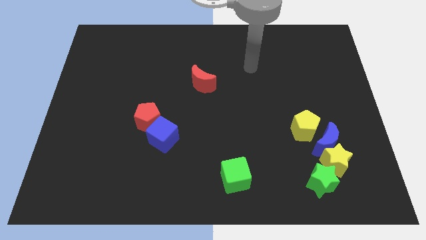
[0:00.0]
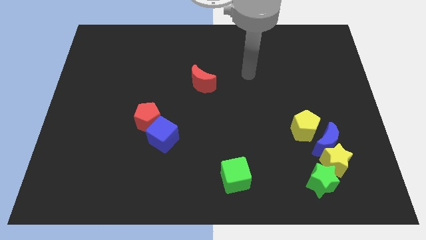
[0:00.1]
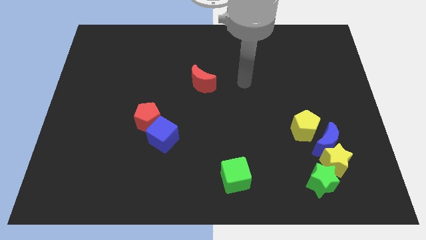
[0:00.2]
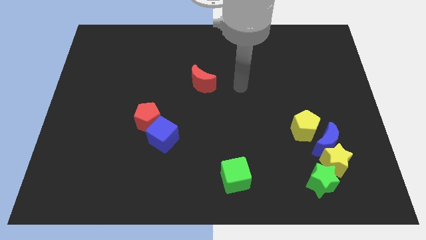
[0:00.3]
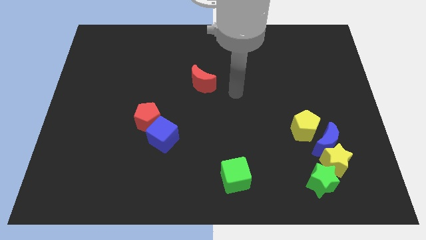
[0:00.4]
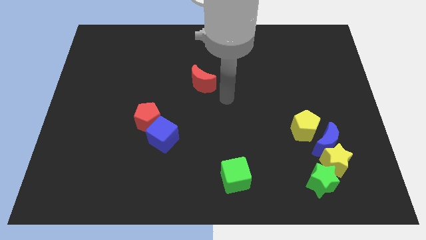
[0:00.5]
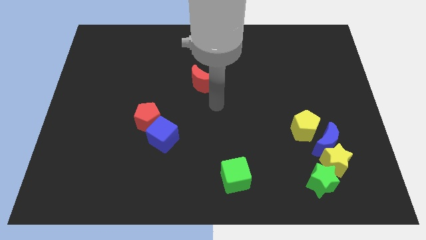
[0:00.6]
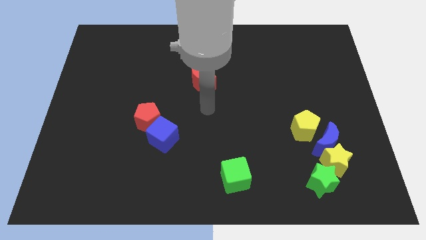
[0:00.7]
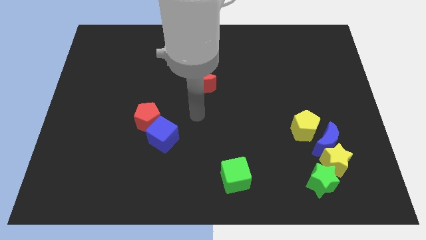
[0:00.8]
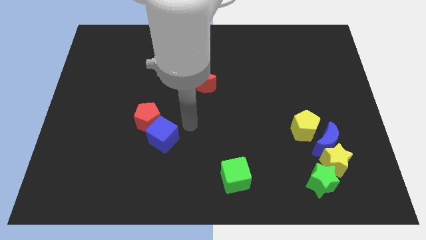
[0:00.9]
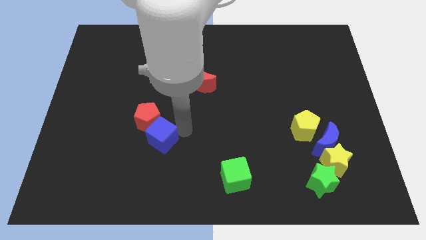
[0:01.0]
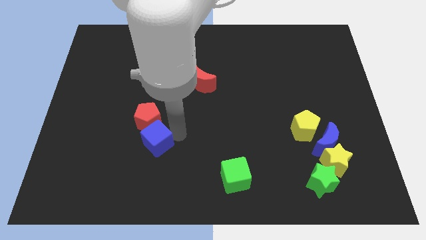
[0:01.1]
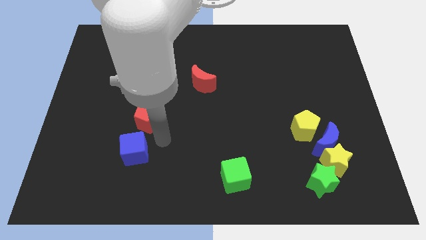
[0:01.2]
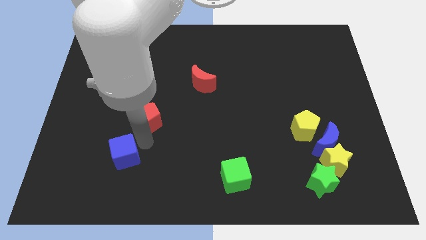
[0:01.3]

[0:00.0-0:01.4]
separate the red pentagon from the blue cube

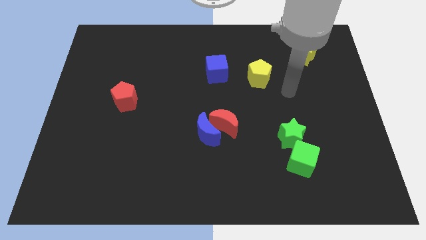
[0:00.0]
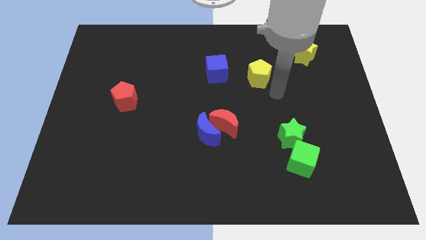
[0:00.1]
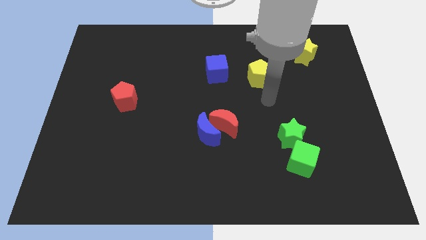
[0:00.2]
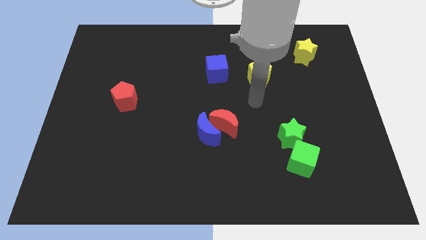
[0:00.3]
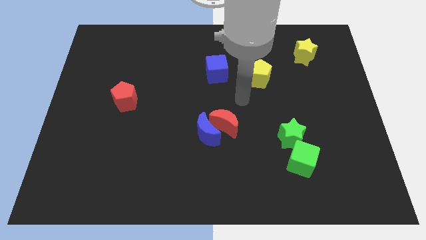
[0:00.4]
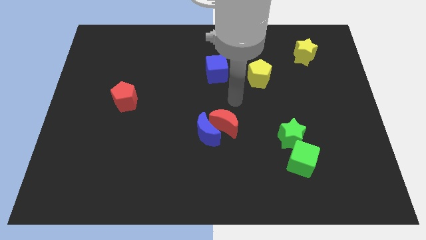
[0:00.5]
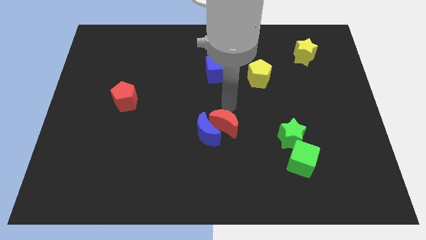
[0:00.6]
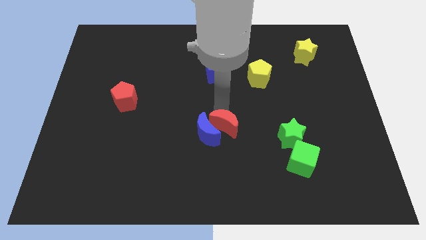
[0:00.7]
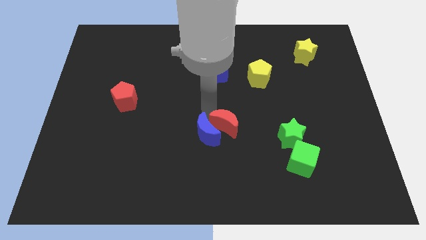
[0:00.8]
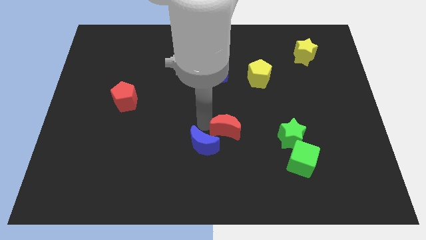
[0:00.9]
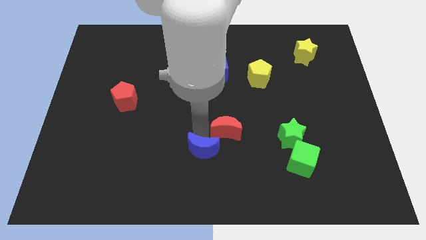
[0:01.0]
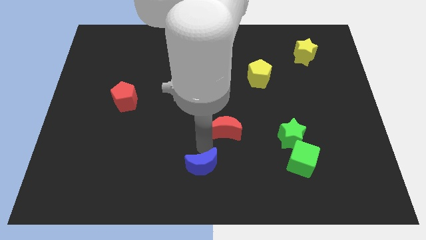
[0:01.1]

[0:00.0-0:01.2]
separate the red moon from the blue moon

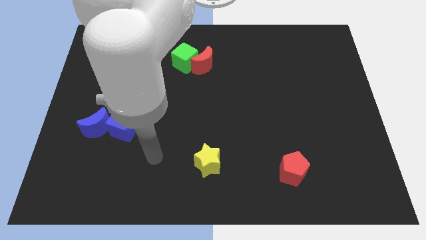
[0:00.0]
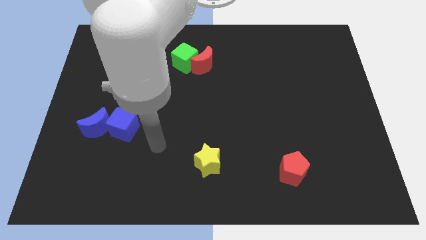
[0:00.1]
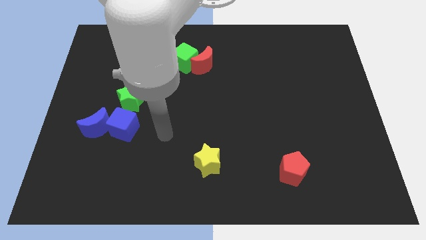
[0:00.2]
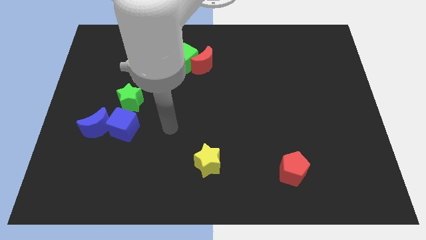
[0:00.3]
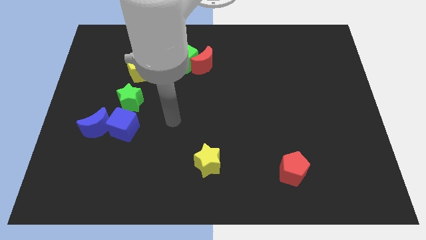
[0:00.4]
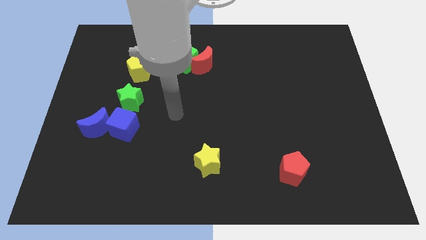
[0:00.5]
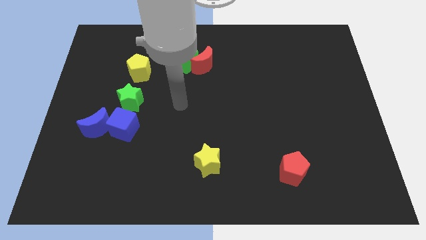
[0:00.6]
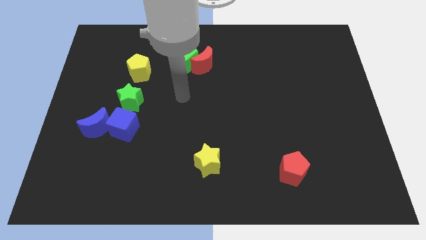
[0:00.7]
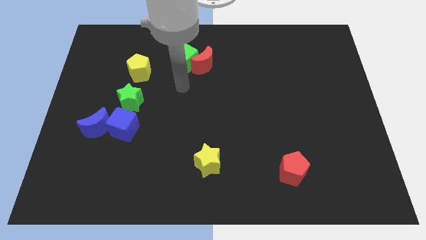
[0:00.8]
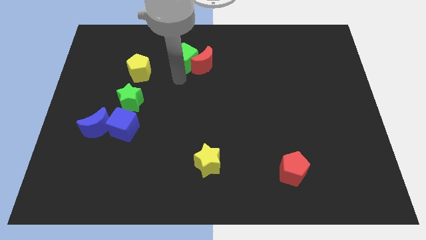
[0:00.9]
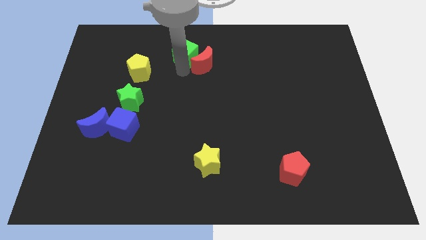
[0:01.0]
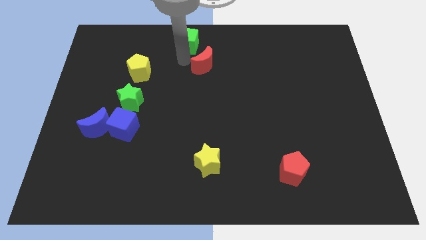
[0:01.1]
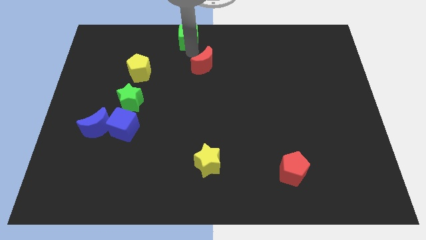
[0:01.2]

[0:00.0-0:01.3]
pull the red moon apart from the green cube

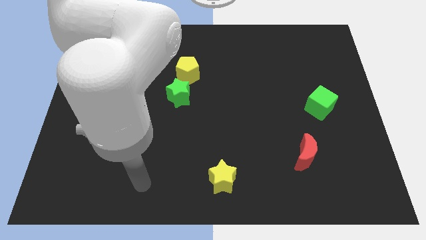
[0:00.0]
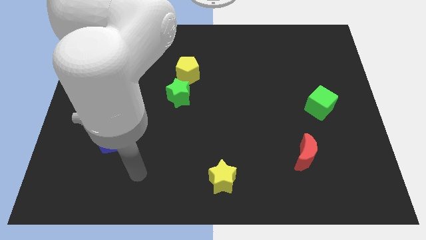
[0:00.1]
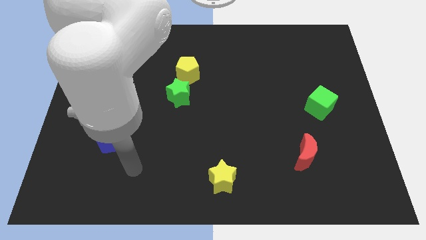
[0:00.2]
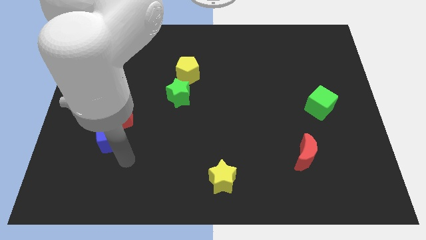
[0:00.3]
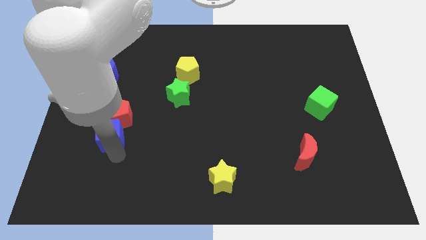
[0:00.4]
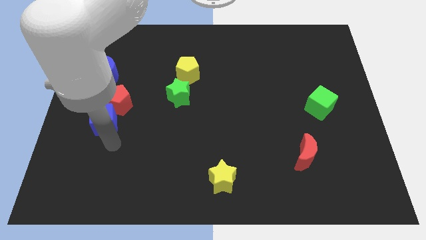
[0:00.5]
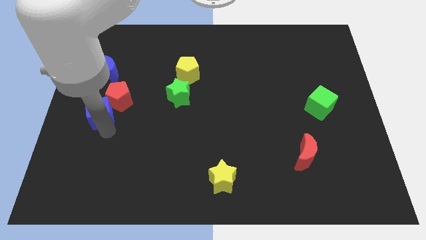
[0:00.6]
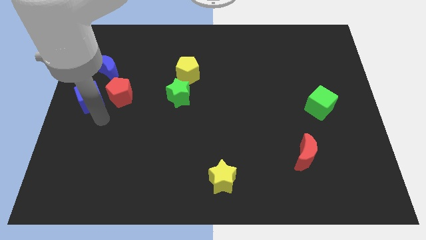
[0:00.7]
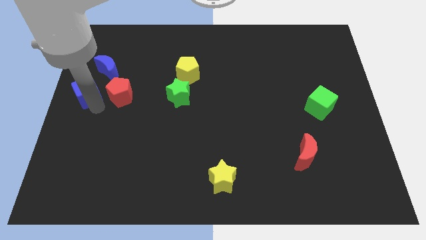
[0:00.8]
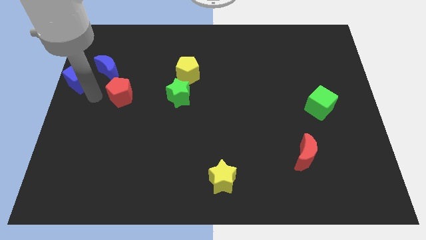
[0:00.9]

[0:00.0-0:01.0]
move the red pentagon away from the blue cube

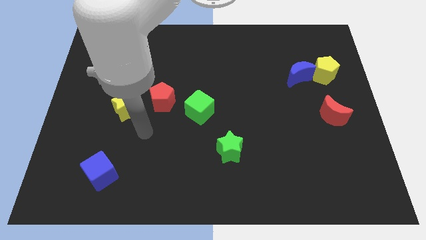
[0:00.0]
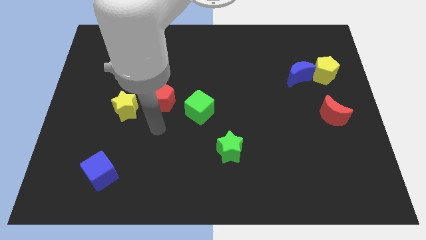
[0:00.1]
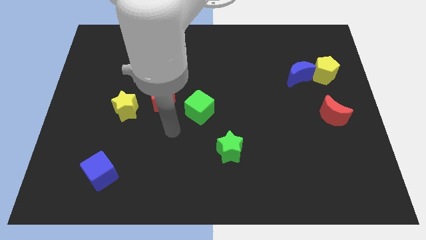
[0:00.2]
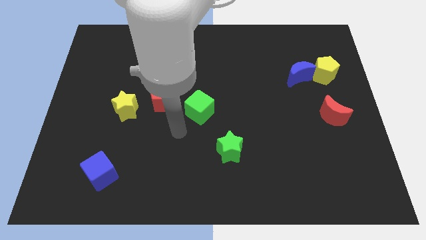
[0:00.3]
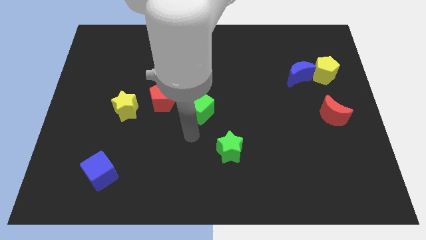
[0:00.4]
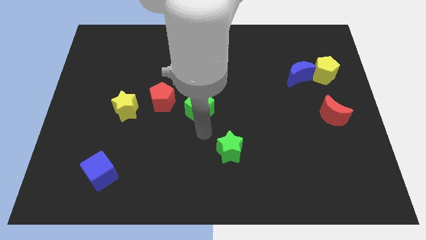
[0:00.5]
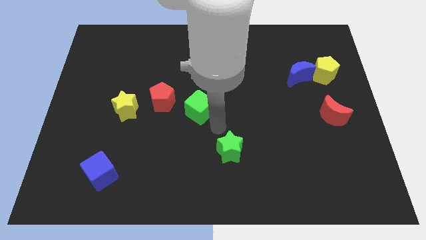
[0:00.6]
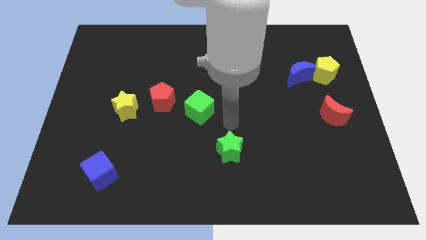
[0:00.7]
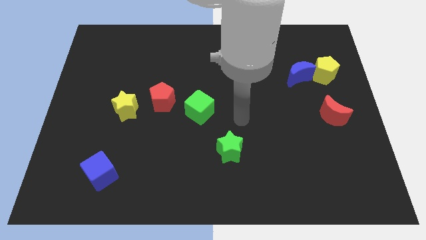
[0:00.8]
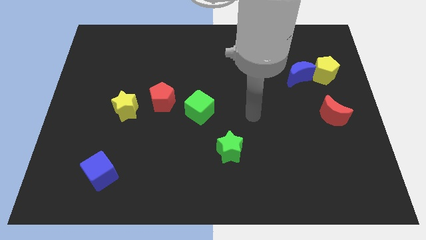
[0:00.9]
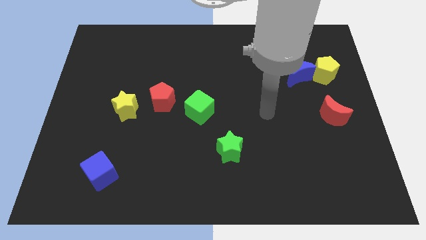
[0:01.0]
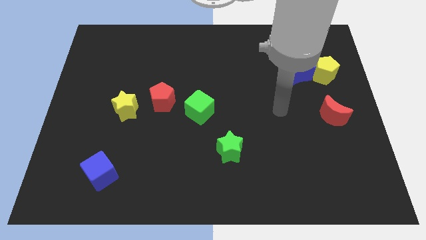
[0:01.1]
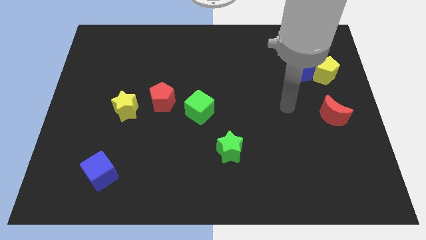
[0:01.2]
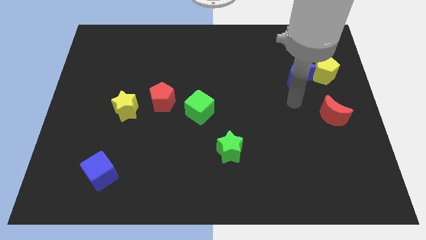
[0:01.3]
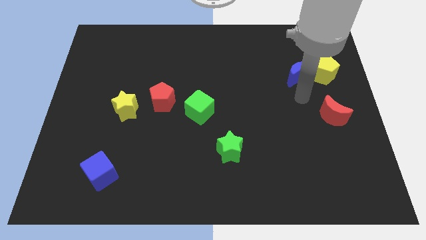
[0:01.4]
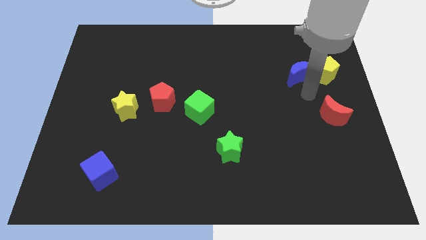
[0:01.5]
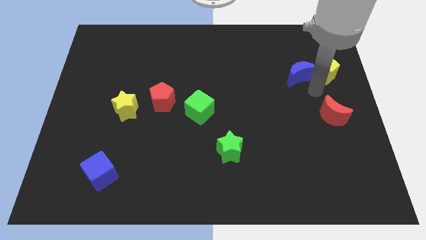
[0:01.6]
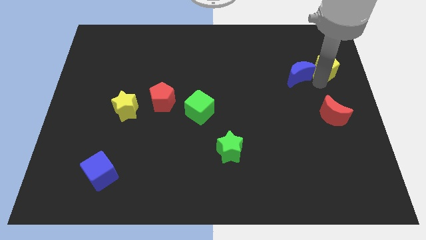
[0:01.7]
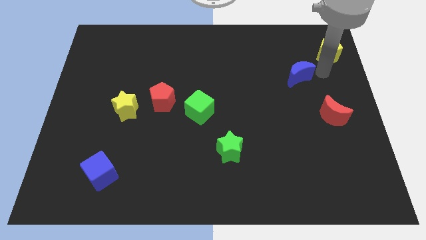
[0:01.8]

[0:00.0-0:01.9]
pull the blue moon apart from the yellow pentagon

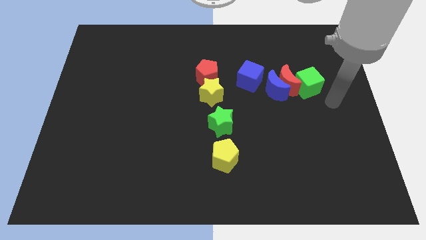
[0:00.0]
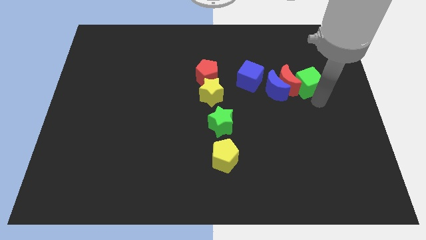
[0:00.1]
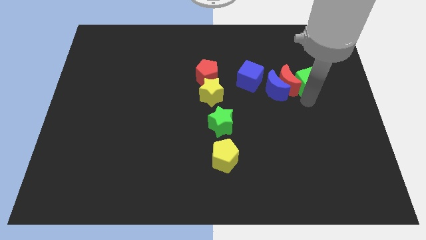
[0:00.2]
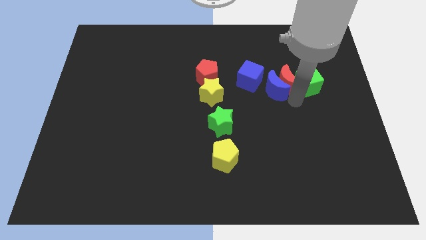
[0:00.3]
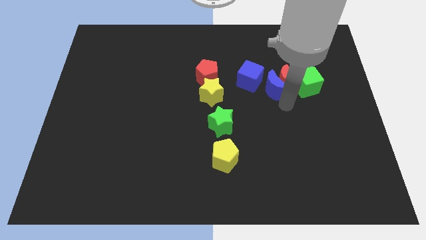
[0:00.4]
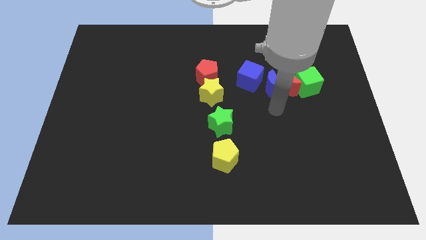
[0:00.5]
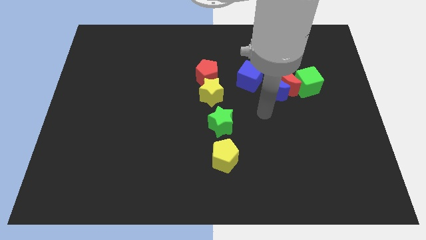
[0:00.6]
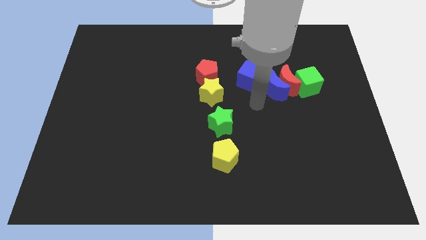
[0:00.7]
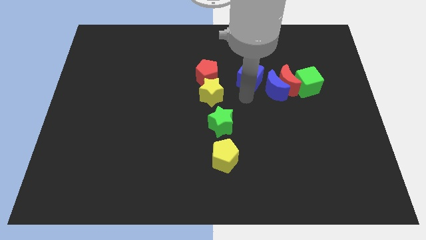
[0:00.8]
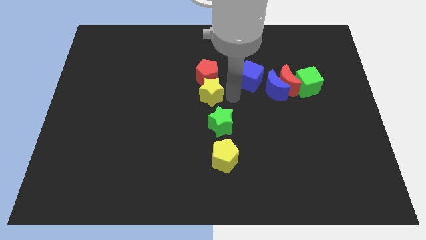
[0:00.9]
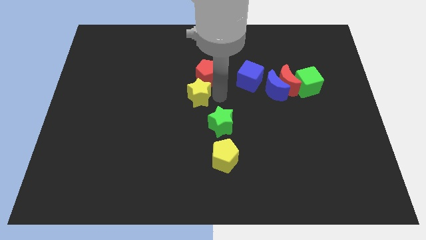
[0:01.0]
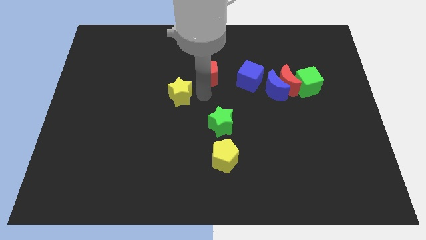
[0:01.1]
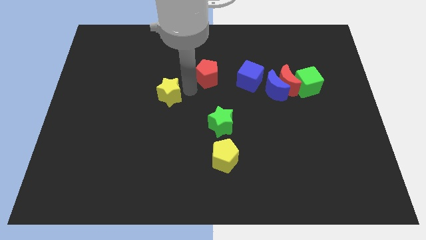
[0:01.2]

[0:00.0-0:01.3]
separate the red pentagon from the yellow star

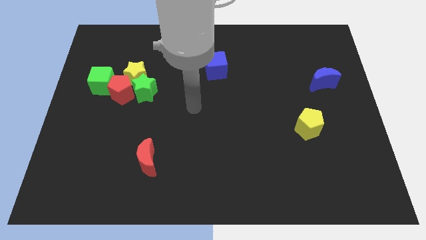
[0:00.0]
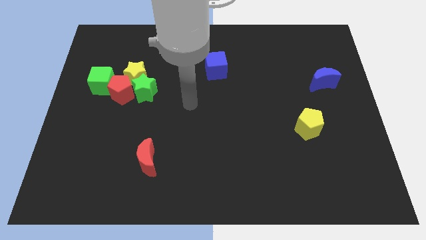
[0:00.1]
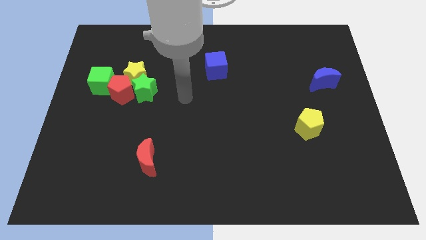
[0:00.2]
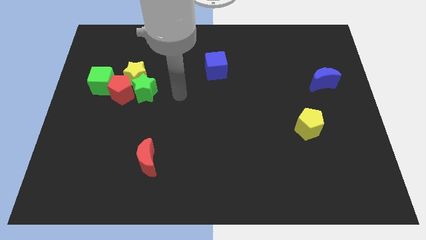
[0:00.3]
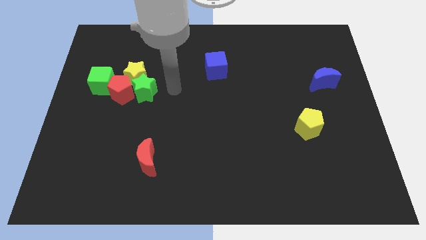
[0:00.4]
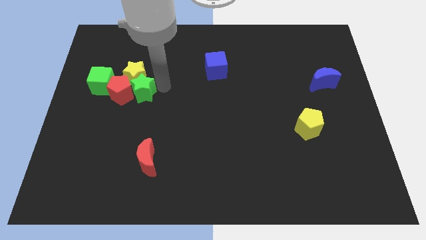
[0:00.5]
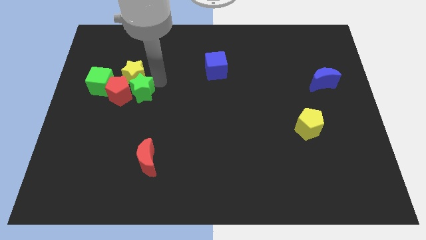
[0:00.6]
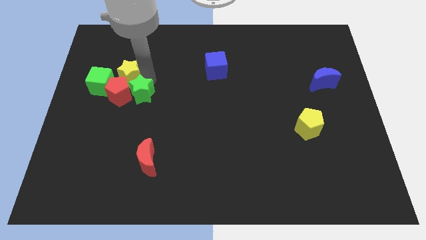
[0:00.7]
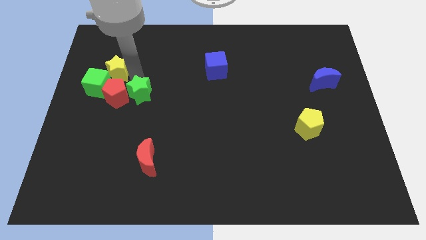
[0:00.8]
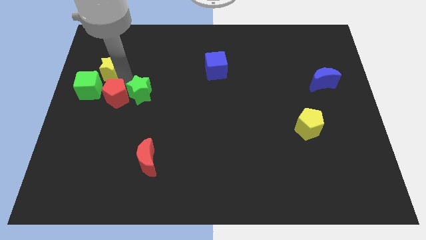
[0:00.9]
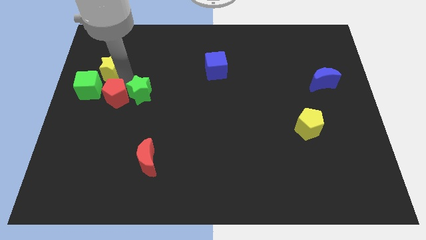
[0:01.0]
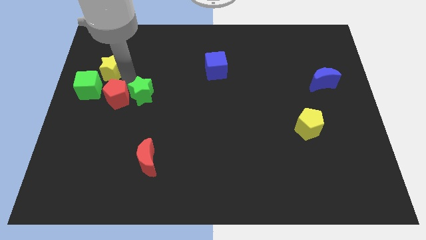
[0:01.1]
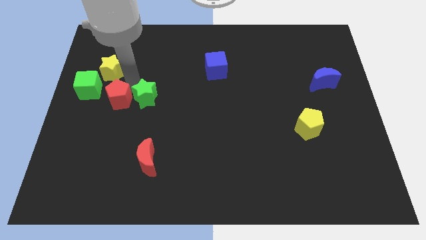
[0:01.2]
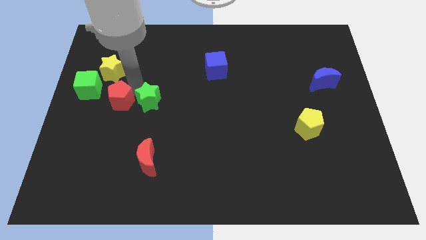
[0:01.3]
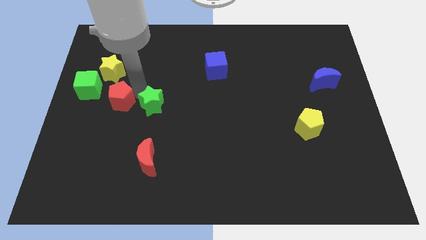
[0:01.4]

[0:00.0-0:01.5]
move the green star away from the yellow star and red pentagon
